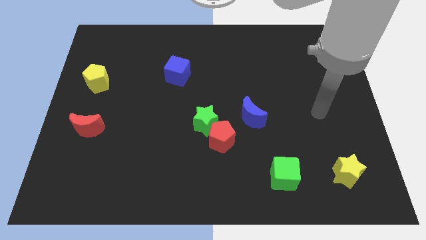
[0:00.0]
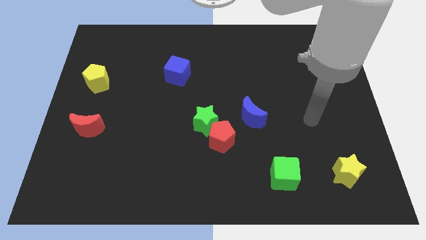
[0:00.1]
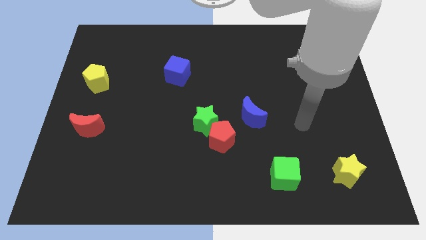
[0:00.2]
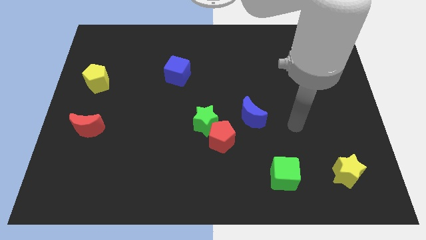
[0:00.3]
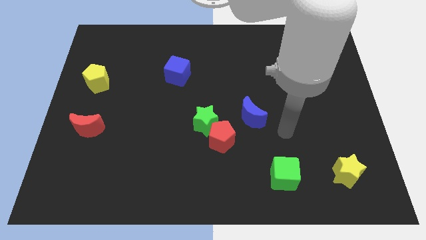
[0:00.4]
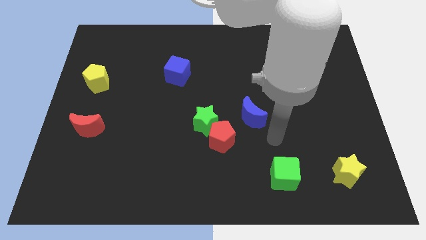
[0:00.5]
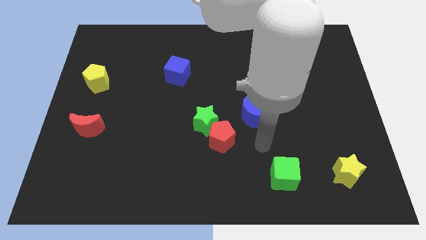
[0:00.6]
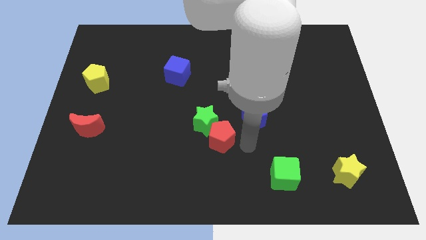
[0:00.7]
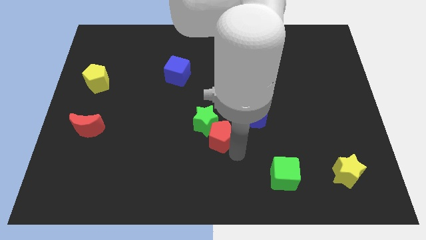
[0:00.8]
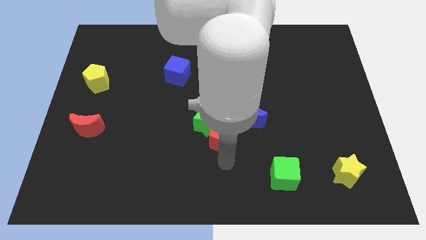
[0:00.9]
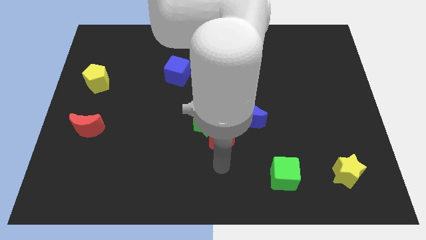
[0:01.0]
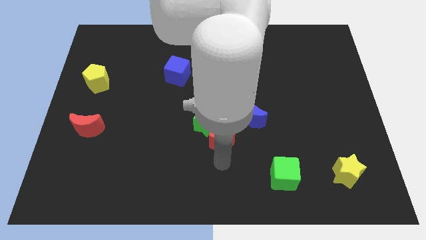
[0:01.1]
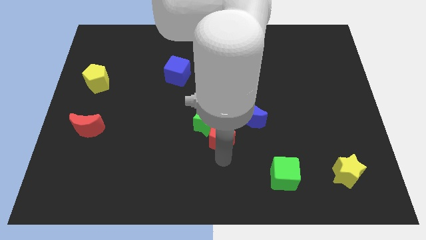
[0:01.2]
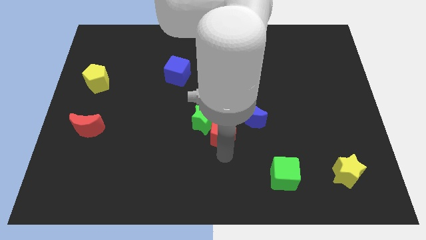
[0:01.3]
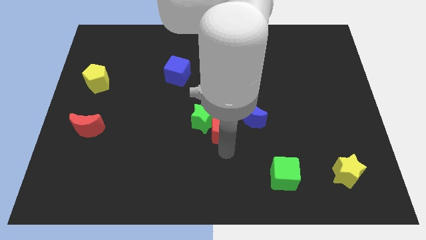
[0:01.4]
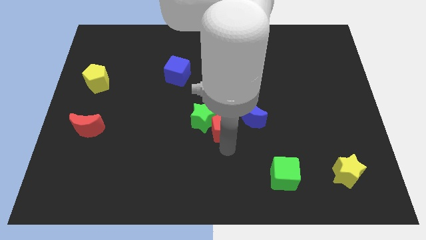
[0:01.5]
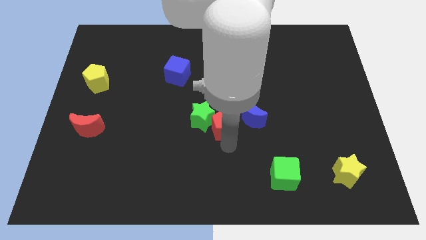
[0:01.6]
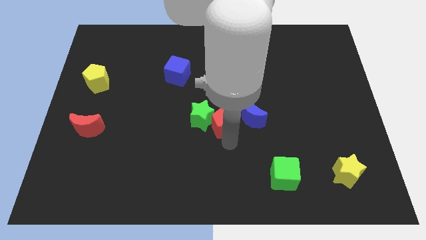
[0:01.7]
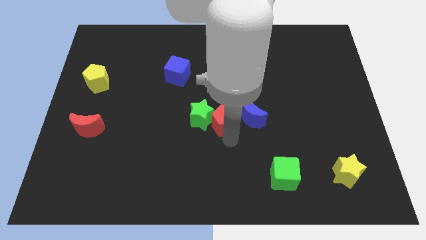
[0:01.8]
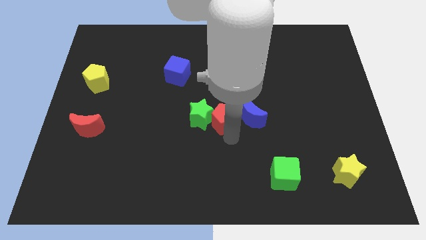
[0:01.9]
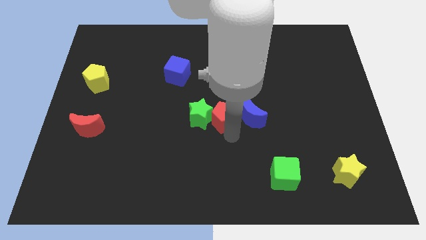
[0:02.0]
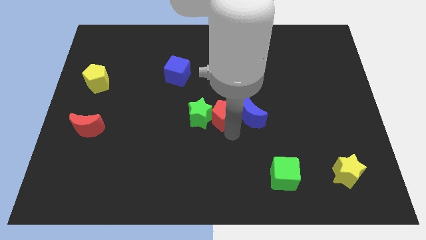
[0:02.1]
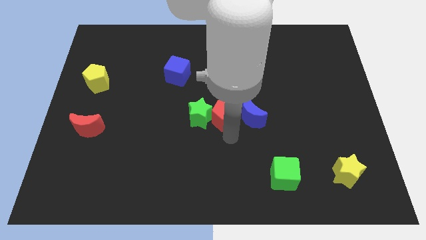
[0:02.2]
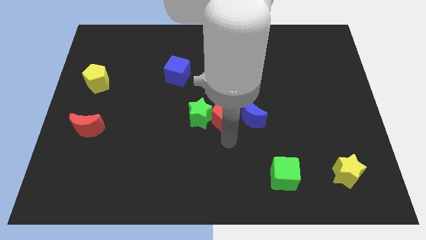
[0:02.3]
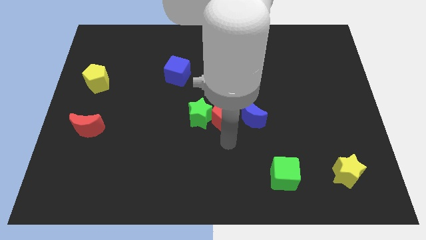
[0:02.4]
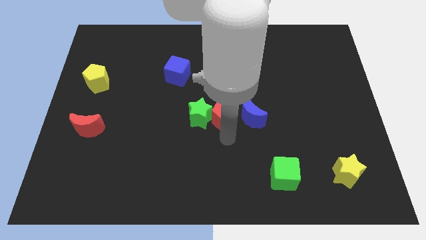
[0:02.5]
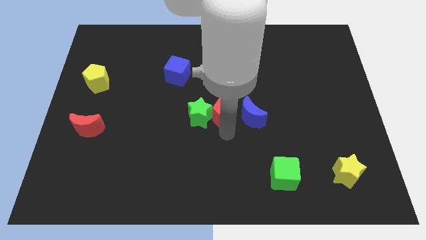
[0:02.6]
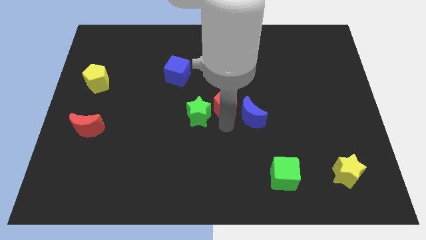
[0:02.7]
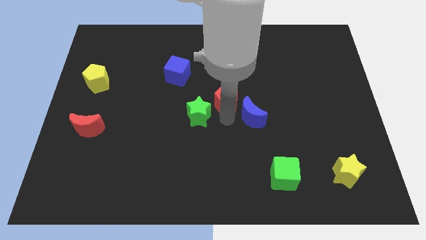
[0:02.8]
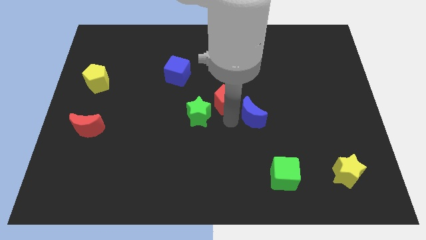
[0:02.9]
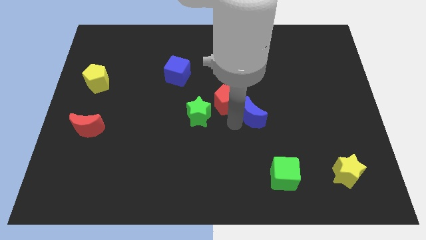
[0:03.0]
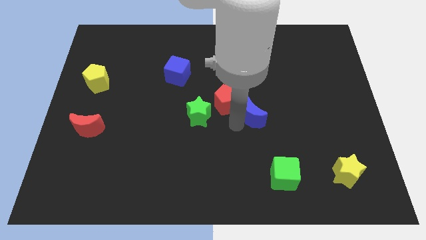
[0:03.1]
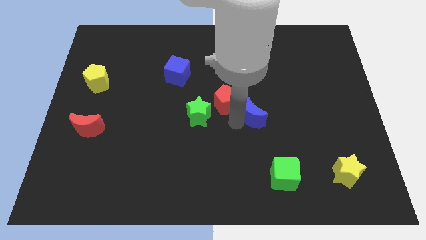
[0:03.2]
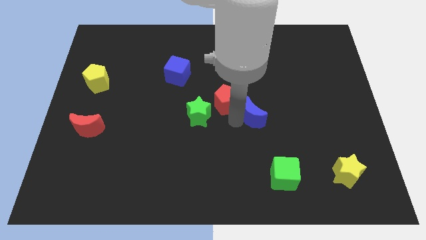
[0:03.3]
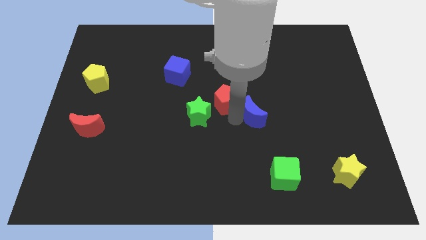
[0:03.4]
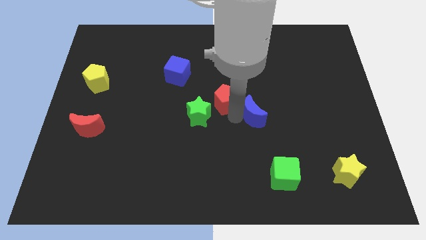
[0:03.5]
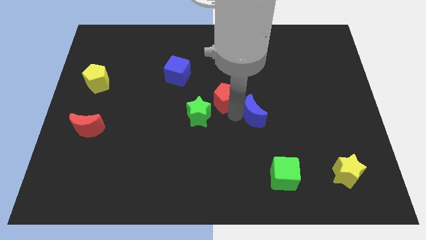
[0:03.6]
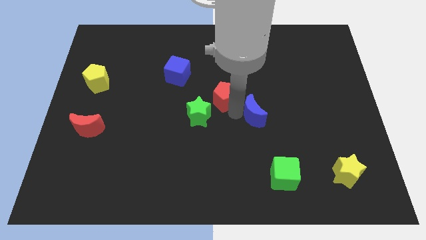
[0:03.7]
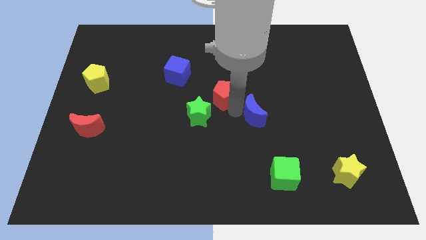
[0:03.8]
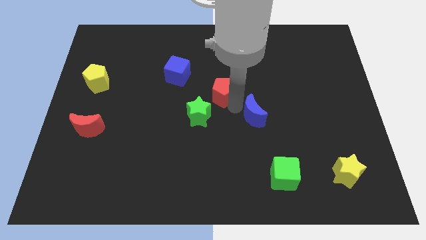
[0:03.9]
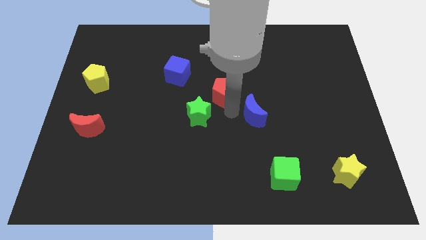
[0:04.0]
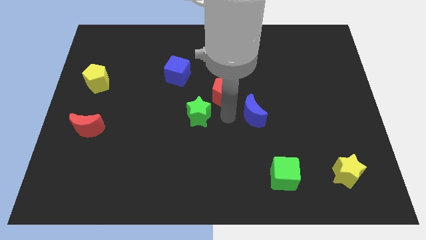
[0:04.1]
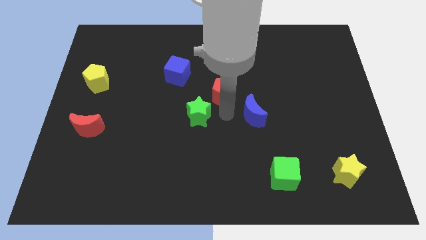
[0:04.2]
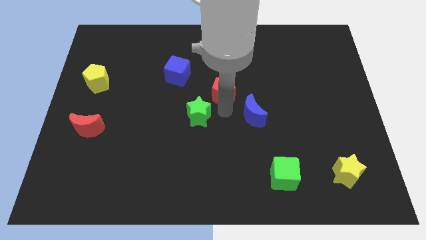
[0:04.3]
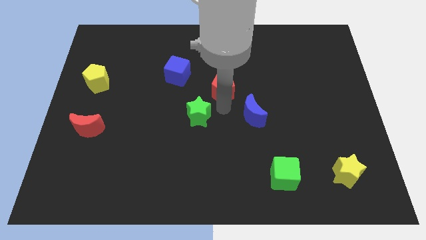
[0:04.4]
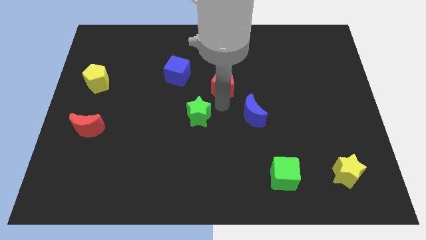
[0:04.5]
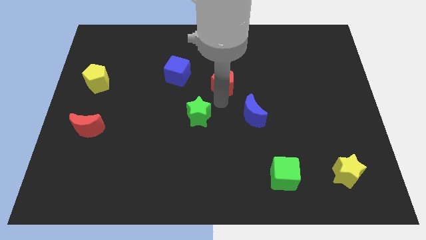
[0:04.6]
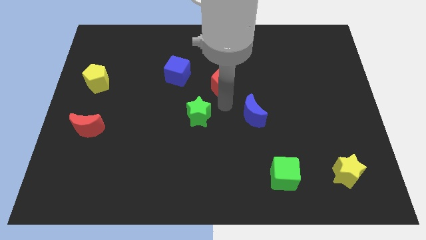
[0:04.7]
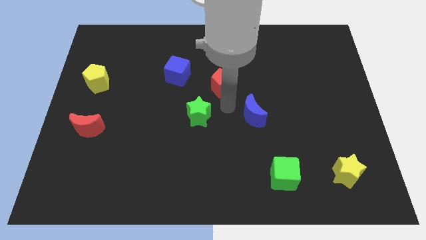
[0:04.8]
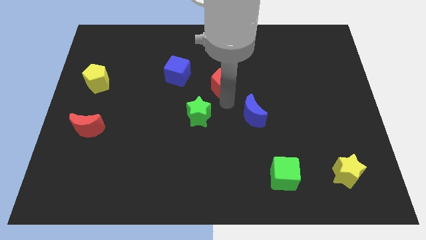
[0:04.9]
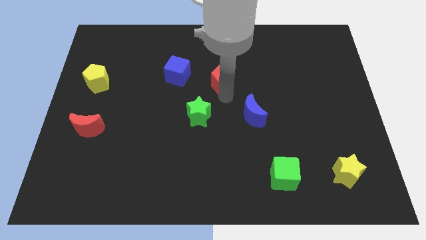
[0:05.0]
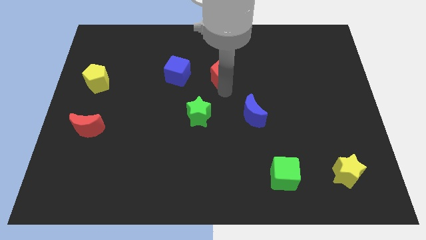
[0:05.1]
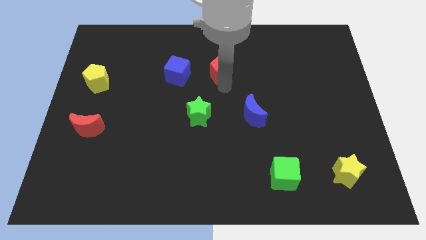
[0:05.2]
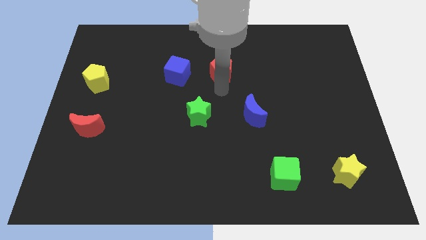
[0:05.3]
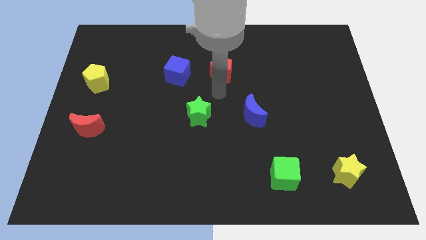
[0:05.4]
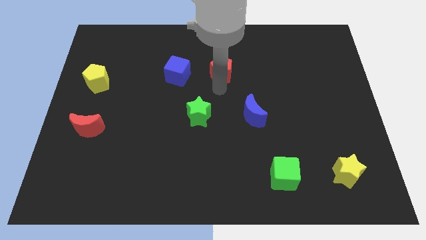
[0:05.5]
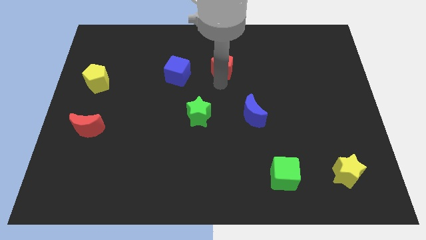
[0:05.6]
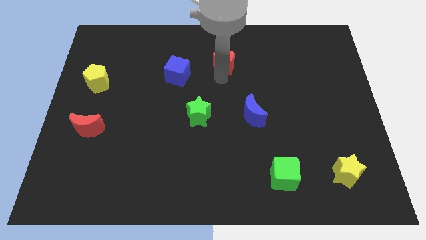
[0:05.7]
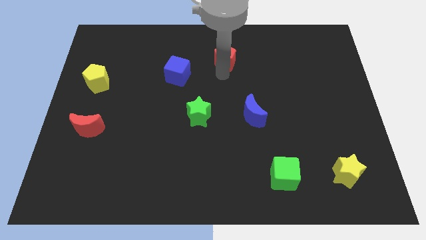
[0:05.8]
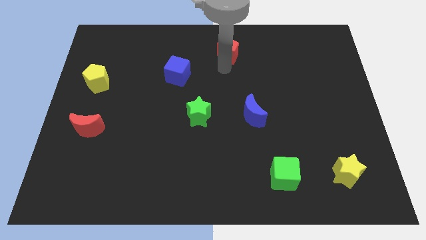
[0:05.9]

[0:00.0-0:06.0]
move the red pentagon to the top

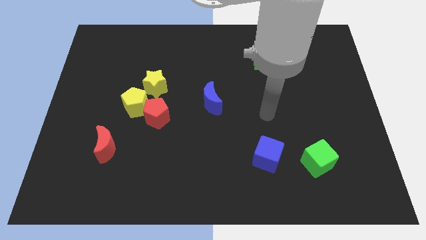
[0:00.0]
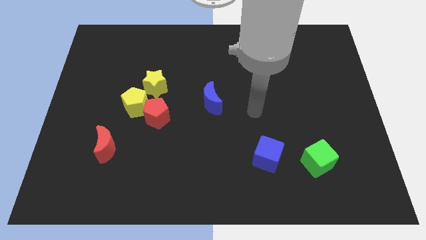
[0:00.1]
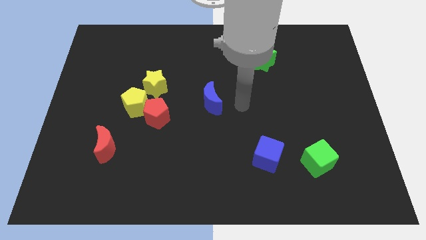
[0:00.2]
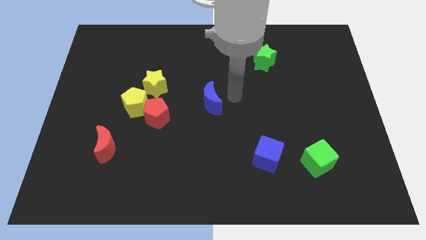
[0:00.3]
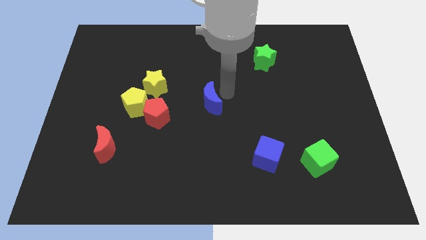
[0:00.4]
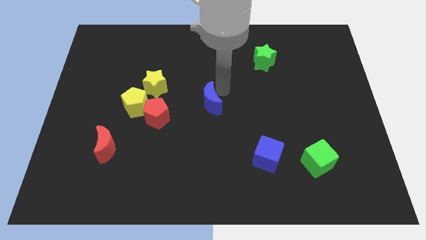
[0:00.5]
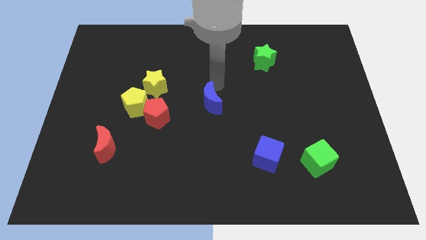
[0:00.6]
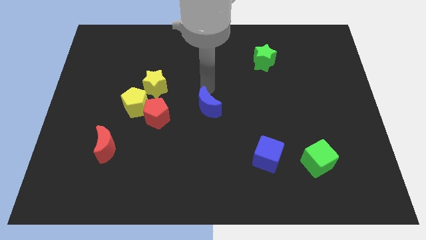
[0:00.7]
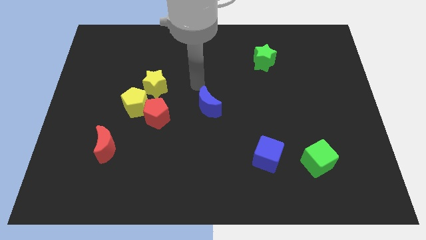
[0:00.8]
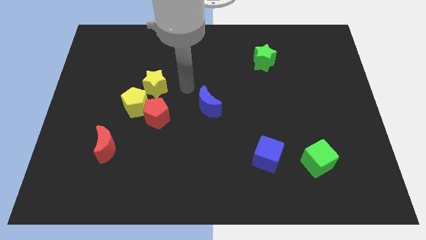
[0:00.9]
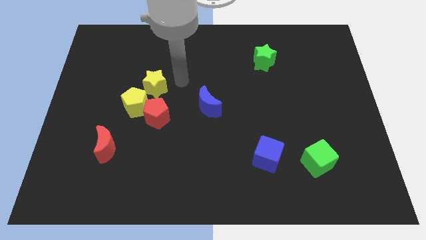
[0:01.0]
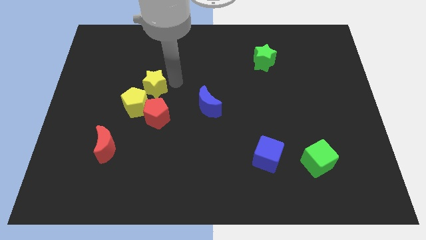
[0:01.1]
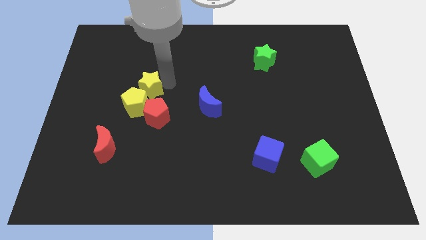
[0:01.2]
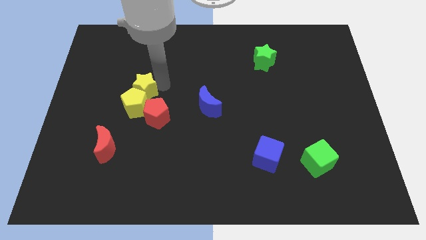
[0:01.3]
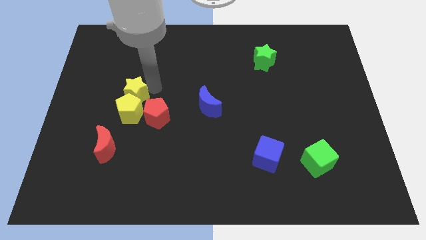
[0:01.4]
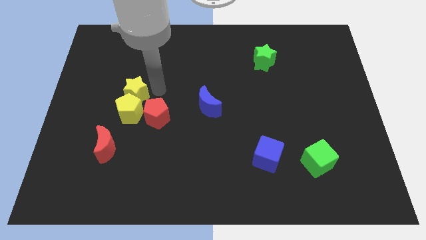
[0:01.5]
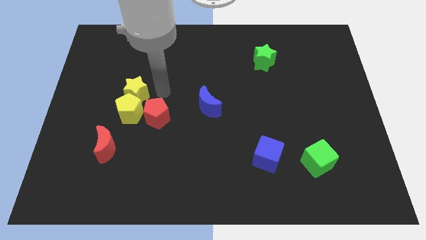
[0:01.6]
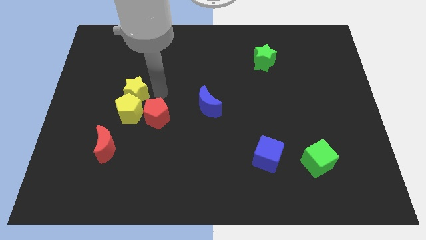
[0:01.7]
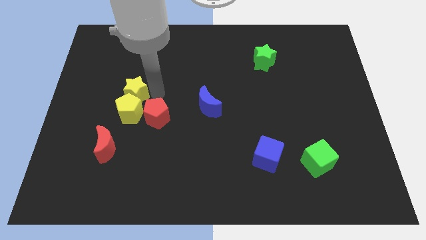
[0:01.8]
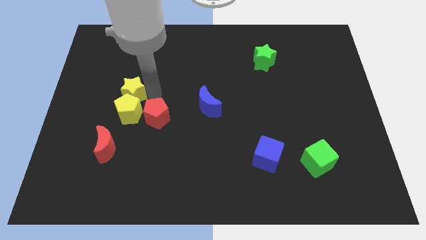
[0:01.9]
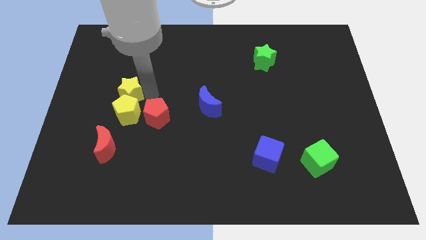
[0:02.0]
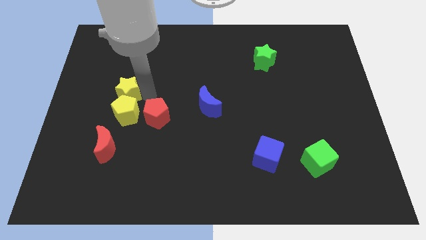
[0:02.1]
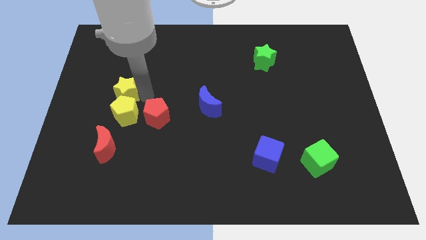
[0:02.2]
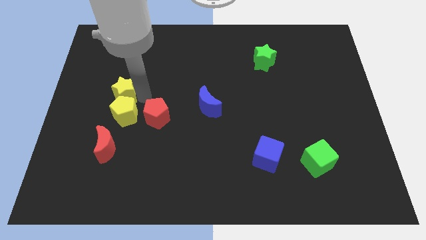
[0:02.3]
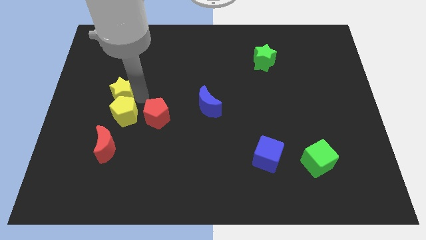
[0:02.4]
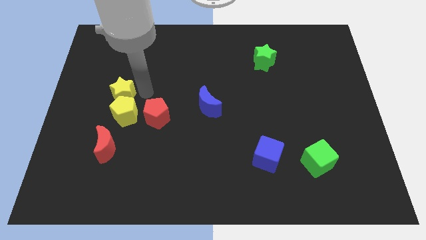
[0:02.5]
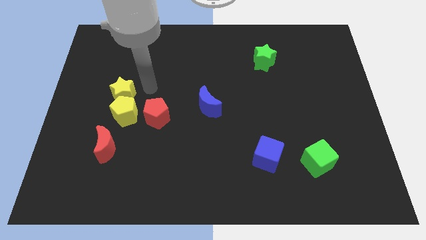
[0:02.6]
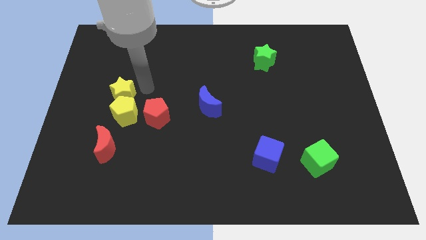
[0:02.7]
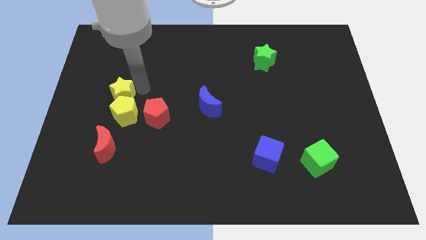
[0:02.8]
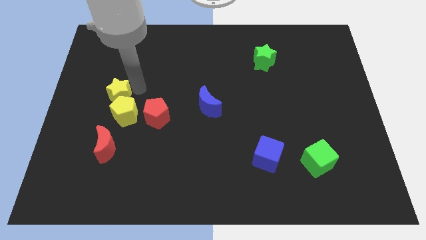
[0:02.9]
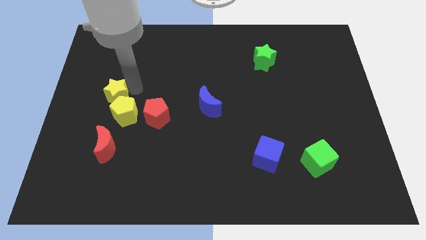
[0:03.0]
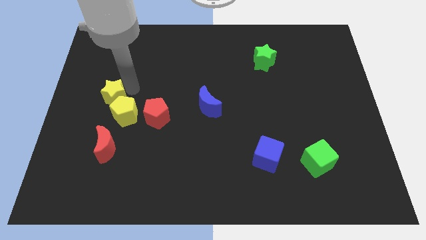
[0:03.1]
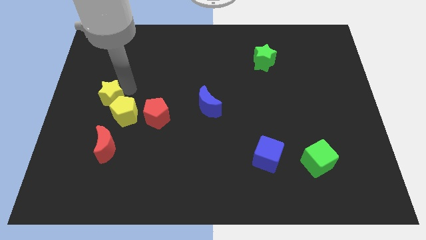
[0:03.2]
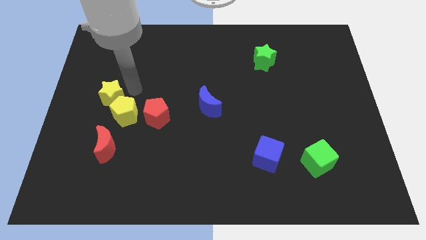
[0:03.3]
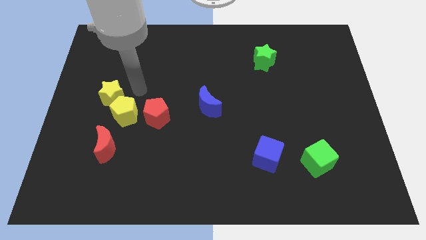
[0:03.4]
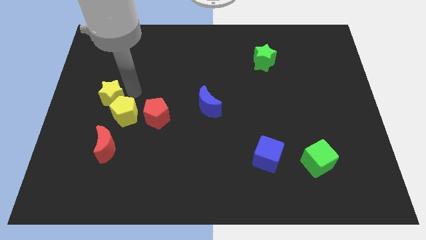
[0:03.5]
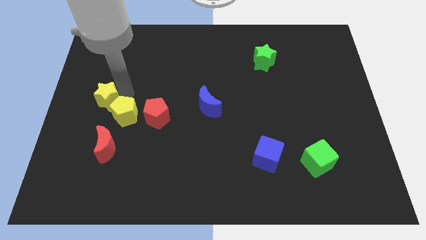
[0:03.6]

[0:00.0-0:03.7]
move the yellow star to the center left
